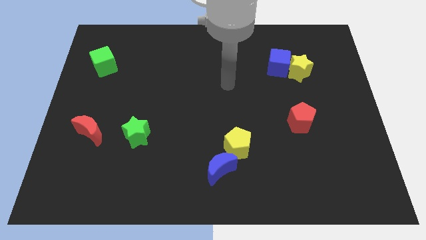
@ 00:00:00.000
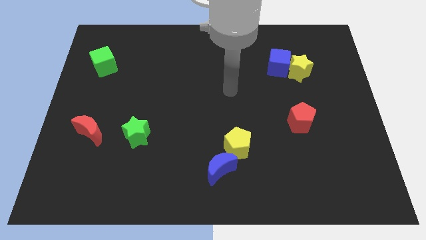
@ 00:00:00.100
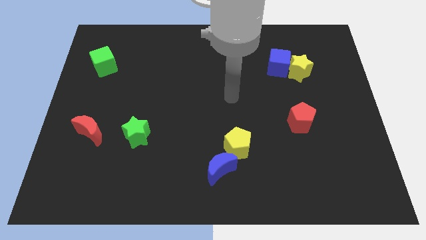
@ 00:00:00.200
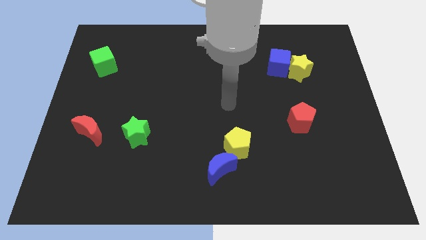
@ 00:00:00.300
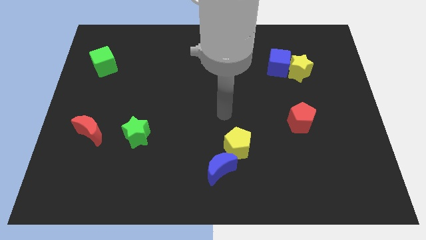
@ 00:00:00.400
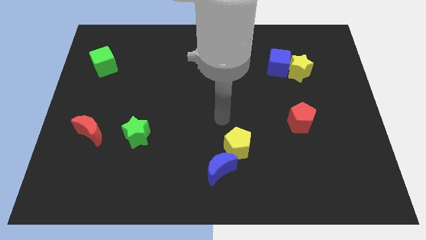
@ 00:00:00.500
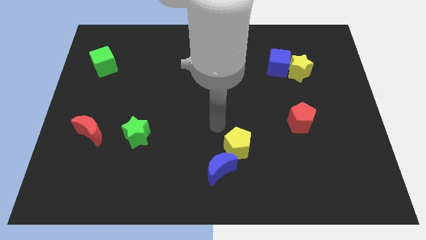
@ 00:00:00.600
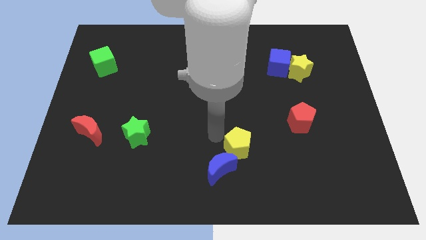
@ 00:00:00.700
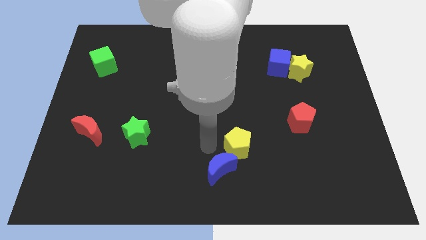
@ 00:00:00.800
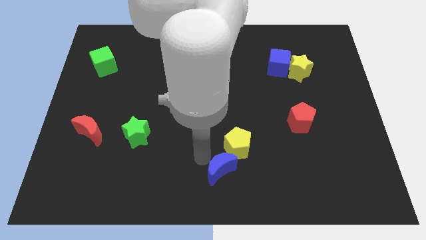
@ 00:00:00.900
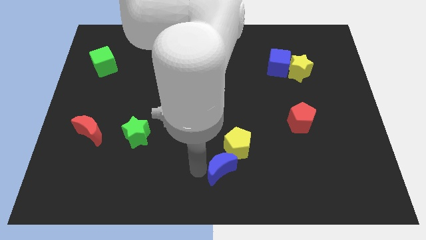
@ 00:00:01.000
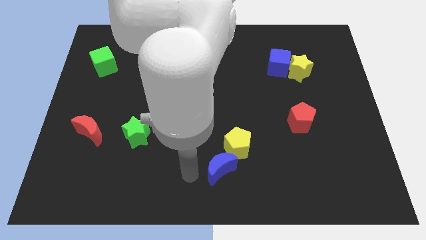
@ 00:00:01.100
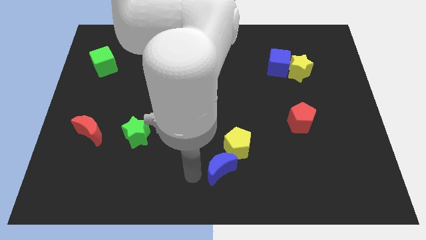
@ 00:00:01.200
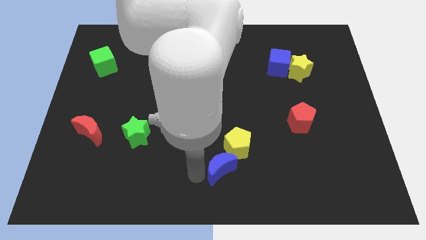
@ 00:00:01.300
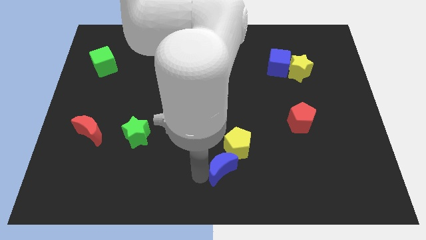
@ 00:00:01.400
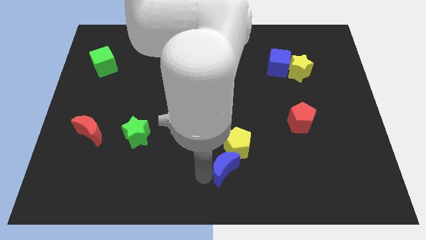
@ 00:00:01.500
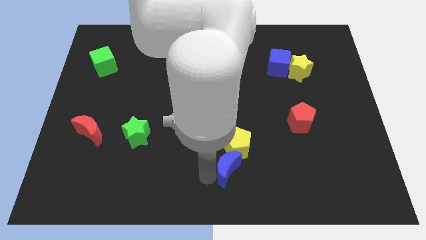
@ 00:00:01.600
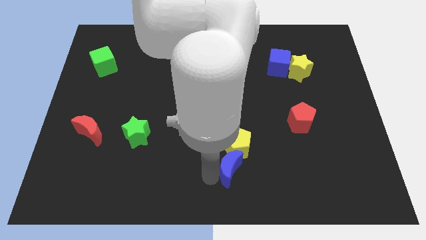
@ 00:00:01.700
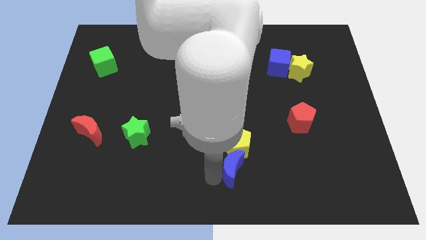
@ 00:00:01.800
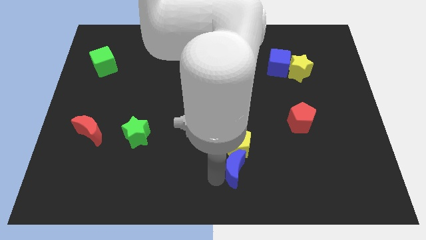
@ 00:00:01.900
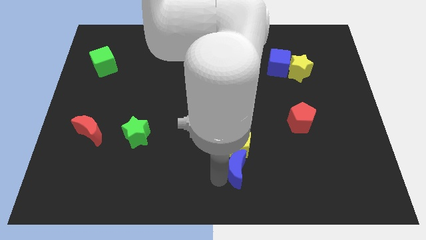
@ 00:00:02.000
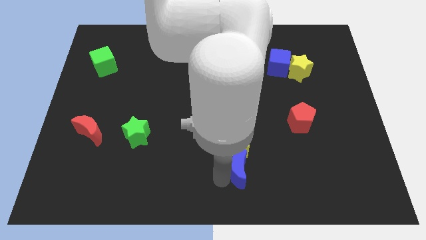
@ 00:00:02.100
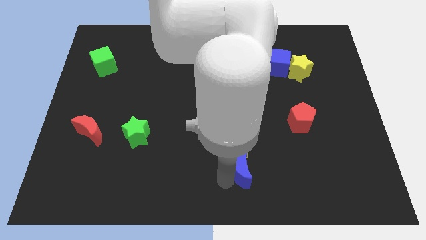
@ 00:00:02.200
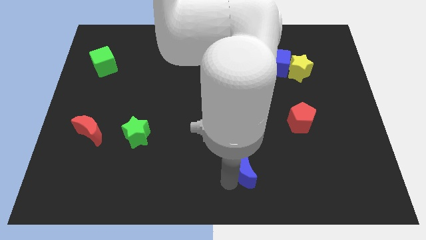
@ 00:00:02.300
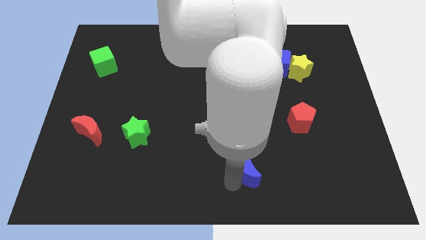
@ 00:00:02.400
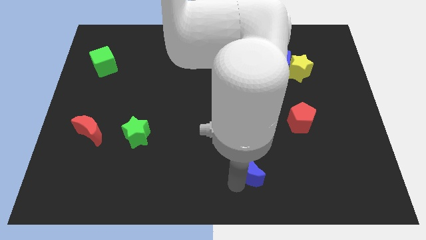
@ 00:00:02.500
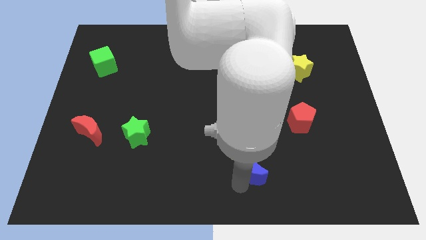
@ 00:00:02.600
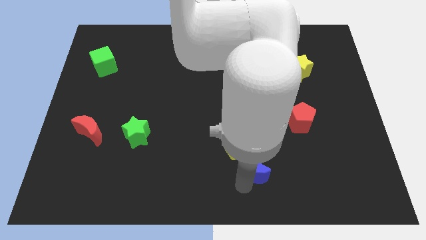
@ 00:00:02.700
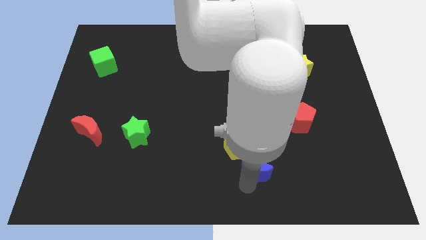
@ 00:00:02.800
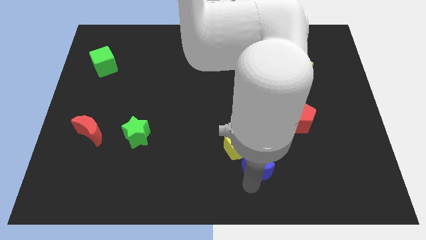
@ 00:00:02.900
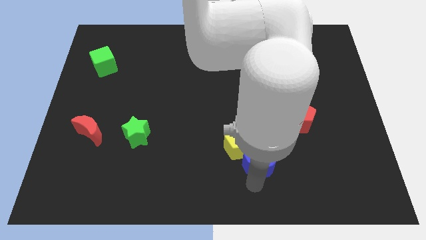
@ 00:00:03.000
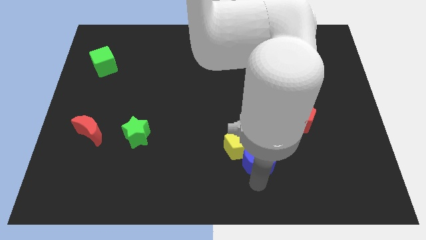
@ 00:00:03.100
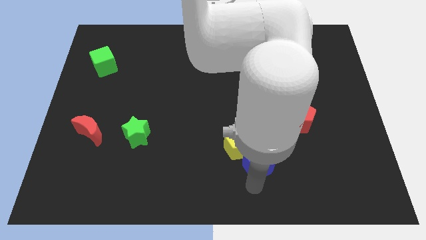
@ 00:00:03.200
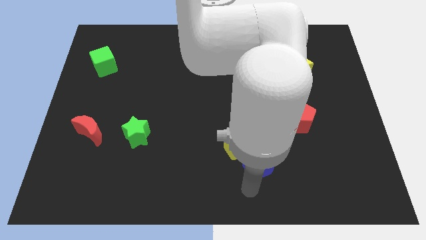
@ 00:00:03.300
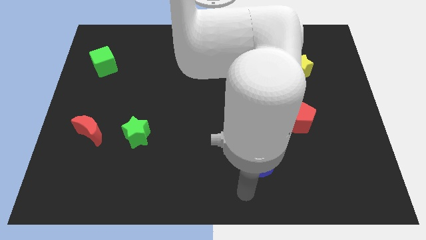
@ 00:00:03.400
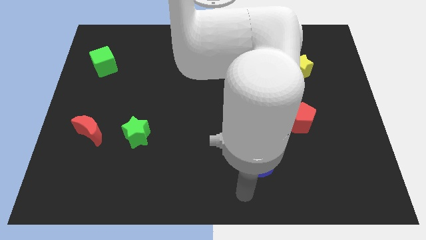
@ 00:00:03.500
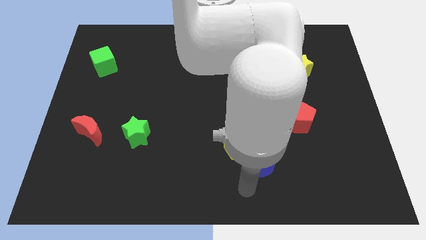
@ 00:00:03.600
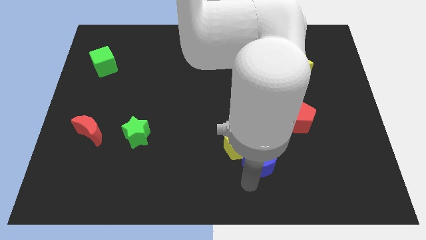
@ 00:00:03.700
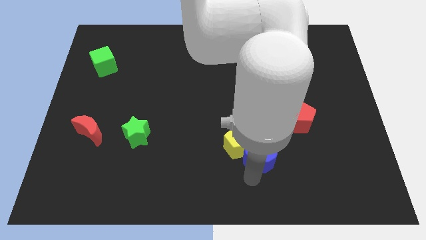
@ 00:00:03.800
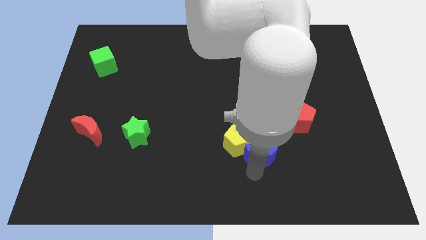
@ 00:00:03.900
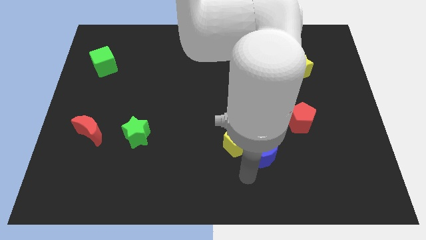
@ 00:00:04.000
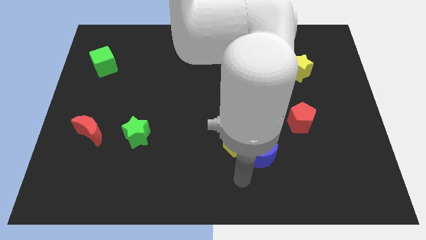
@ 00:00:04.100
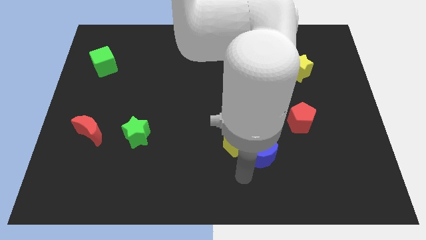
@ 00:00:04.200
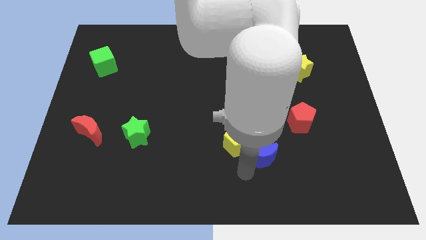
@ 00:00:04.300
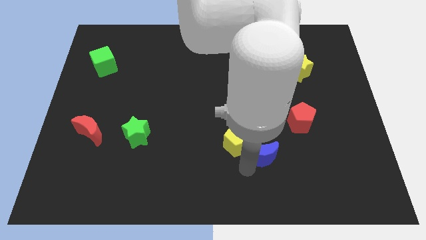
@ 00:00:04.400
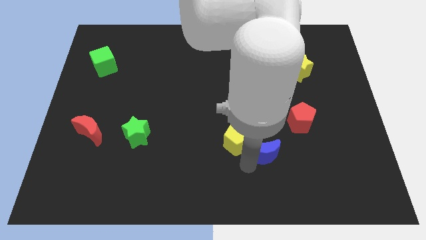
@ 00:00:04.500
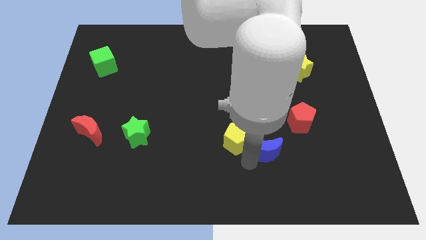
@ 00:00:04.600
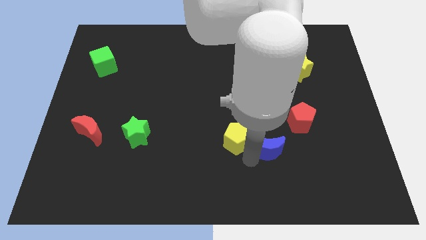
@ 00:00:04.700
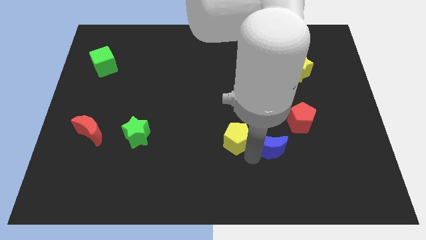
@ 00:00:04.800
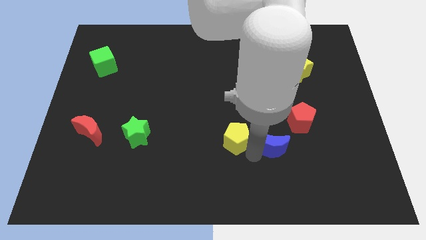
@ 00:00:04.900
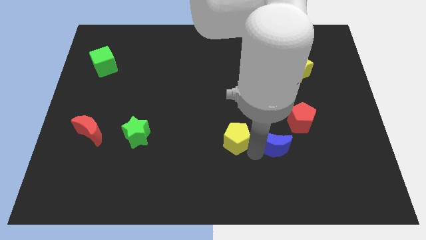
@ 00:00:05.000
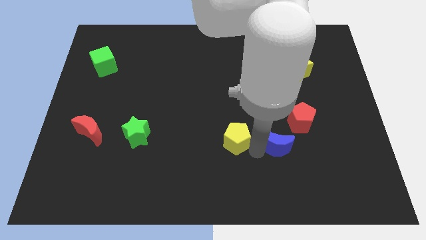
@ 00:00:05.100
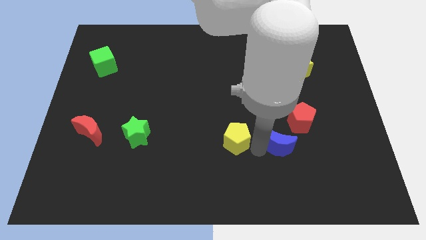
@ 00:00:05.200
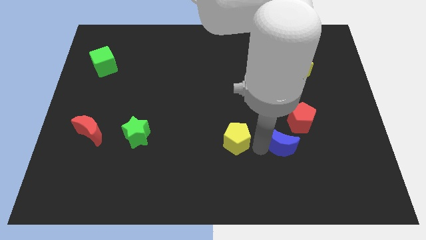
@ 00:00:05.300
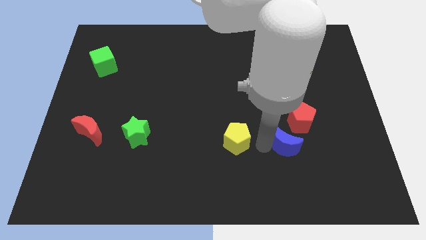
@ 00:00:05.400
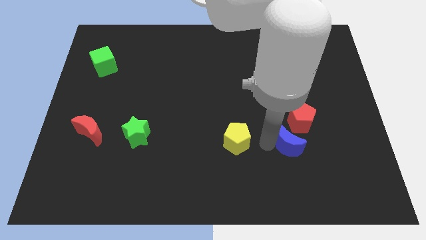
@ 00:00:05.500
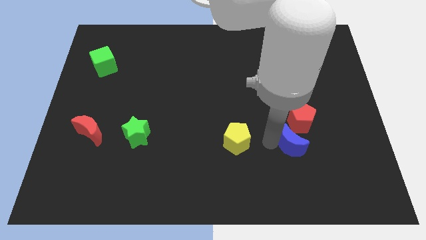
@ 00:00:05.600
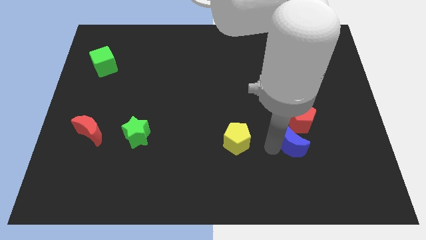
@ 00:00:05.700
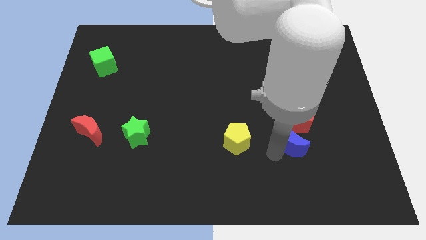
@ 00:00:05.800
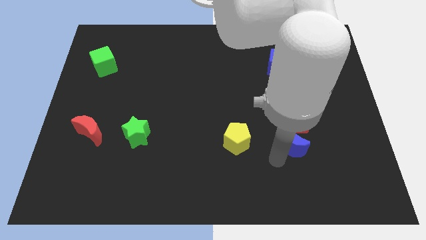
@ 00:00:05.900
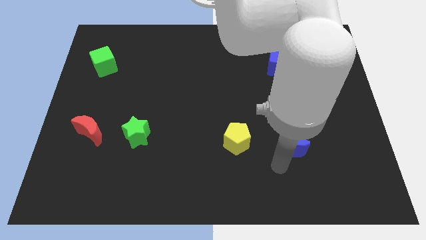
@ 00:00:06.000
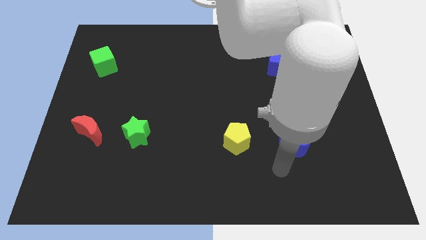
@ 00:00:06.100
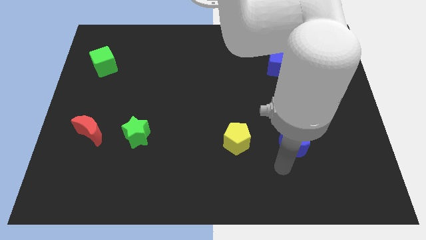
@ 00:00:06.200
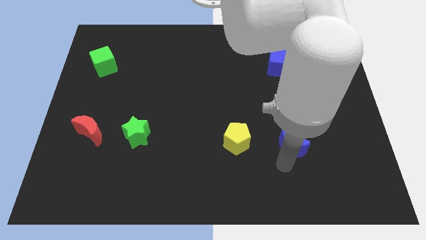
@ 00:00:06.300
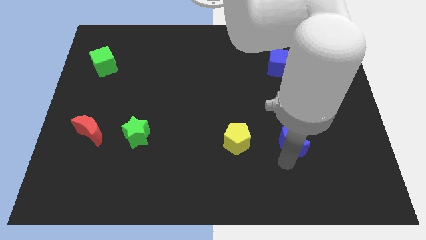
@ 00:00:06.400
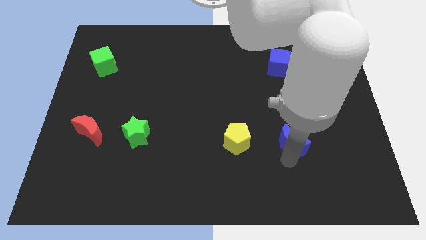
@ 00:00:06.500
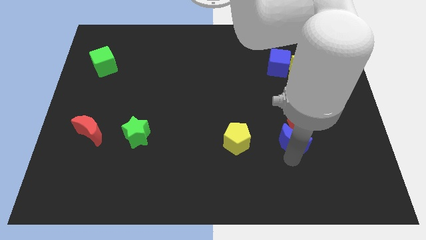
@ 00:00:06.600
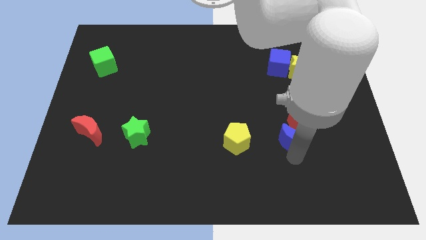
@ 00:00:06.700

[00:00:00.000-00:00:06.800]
slide the blue moon close to the red pentagon
